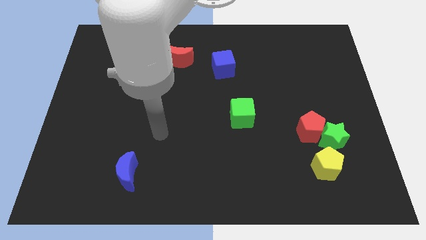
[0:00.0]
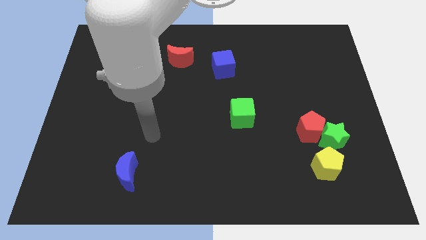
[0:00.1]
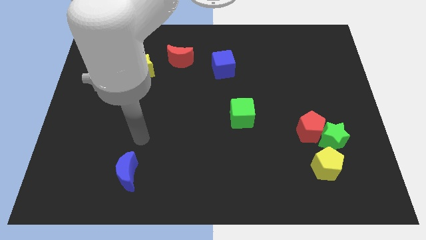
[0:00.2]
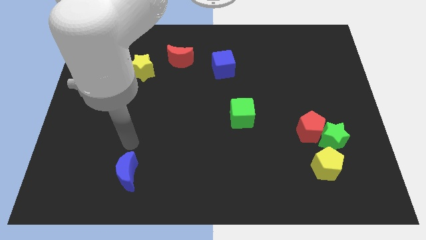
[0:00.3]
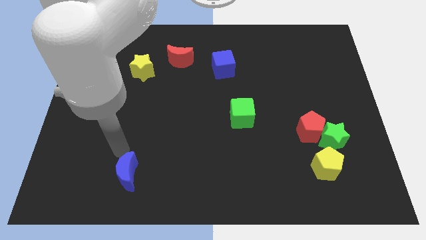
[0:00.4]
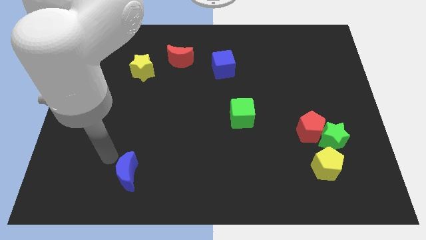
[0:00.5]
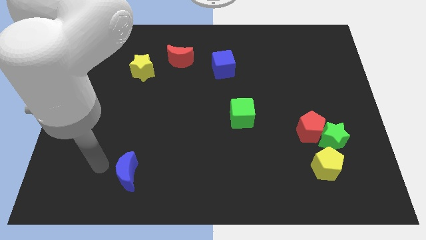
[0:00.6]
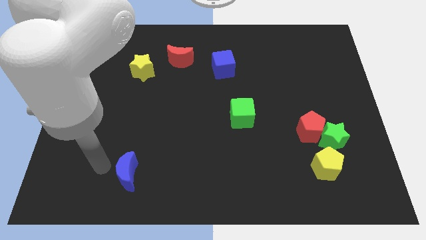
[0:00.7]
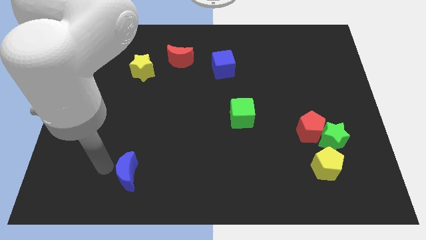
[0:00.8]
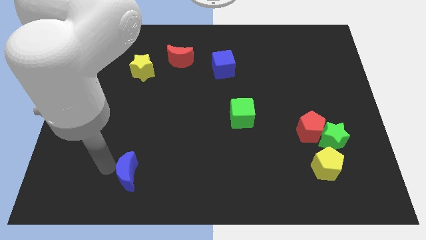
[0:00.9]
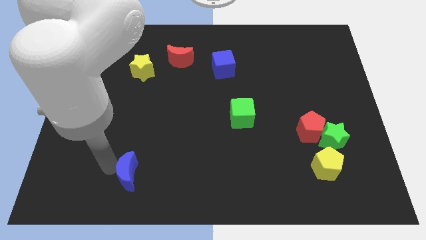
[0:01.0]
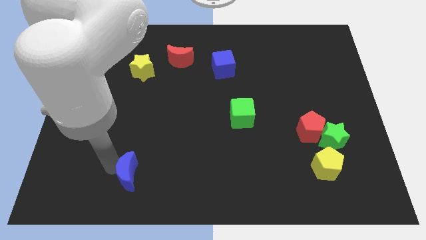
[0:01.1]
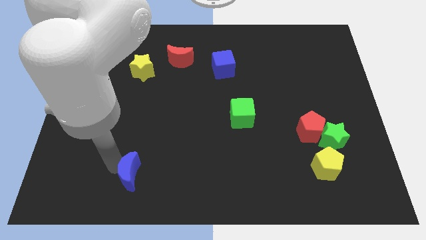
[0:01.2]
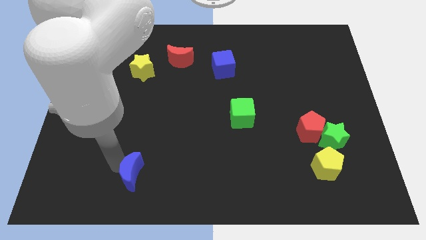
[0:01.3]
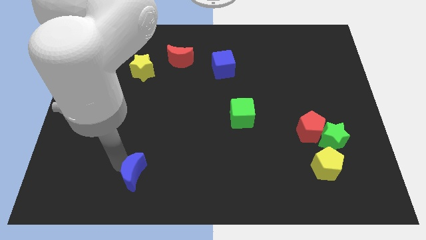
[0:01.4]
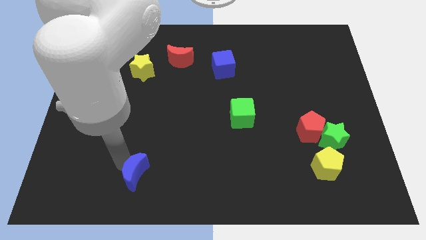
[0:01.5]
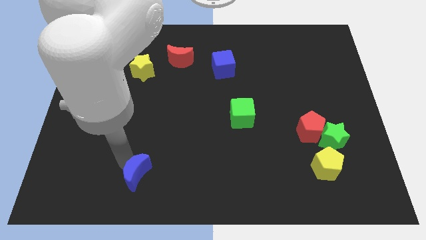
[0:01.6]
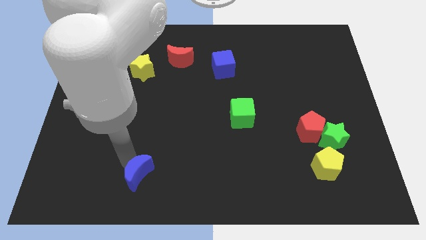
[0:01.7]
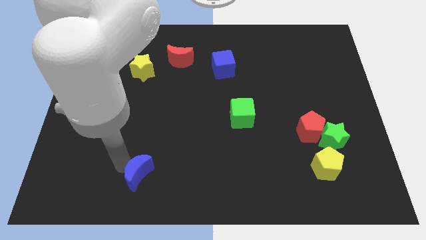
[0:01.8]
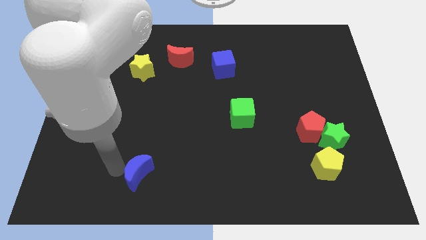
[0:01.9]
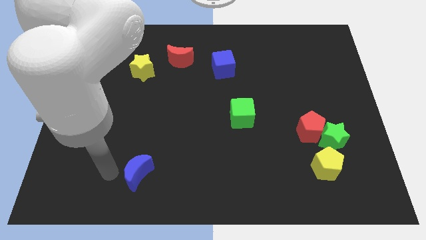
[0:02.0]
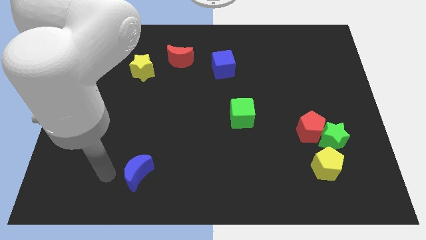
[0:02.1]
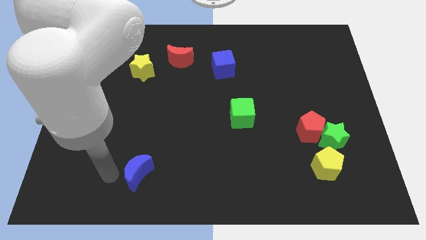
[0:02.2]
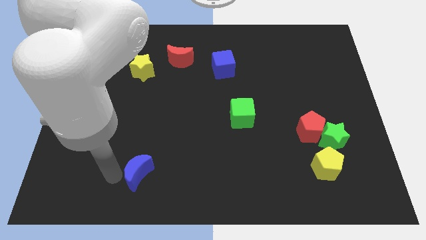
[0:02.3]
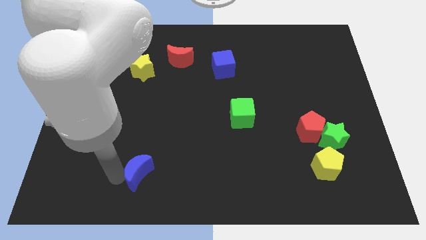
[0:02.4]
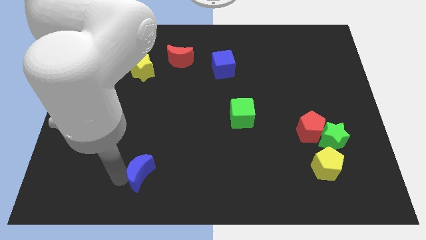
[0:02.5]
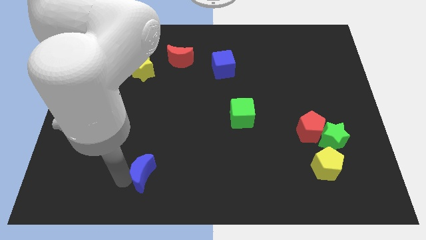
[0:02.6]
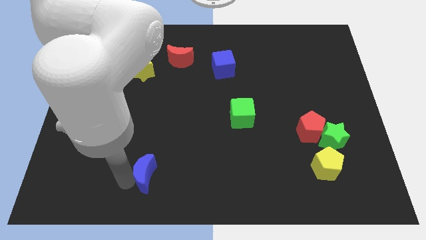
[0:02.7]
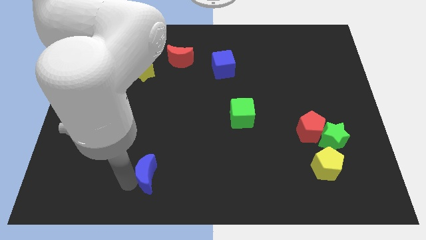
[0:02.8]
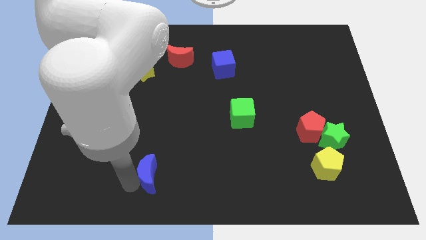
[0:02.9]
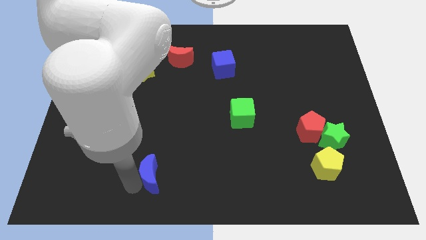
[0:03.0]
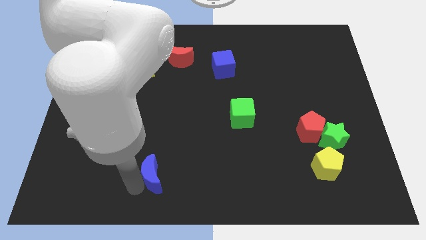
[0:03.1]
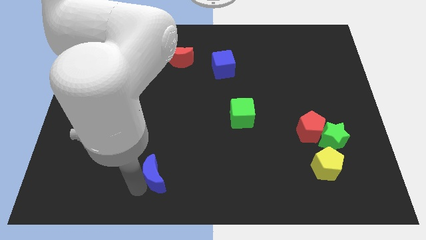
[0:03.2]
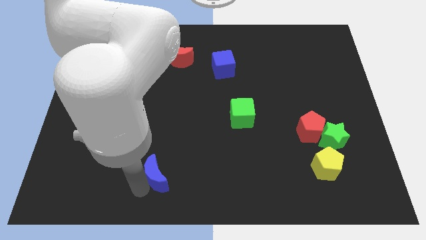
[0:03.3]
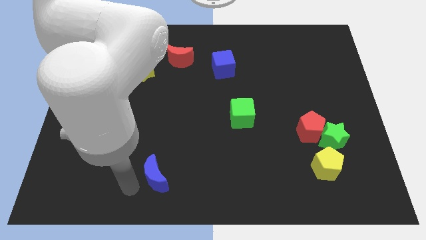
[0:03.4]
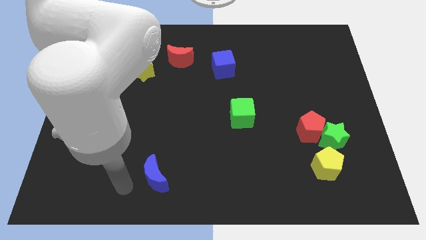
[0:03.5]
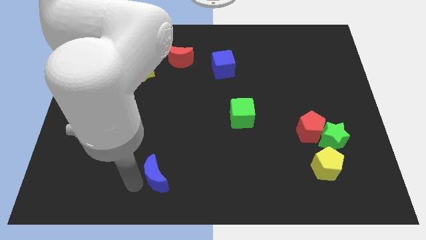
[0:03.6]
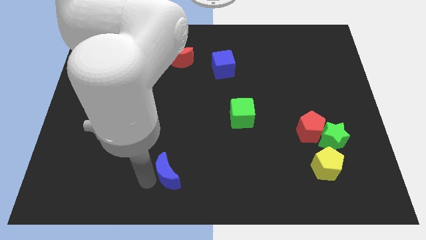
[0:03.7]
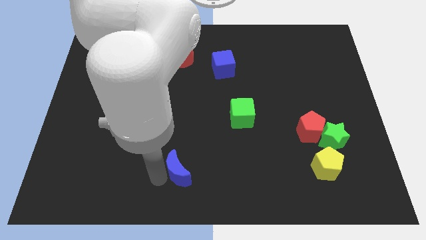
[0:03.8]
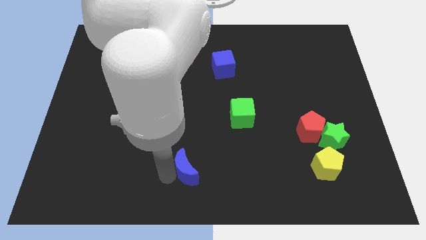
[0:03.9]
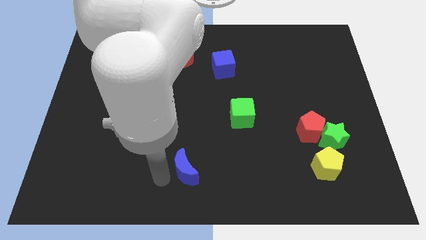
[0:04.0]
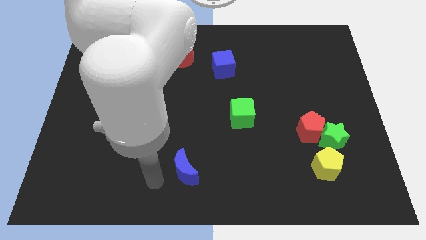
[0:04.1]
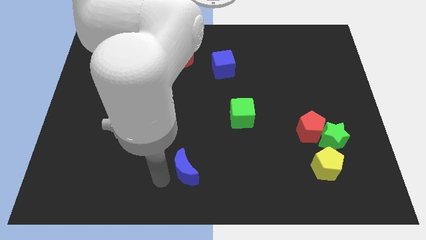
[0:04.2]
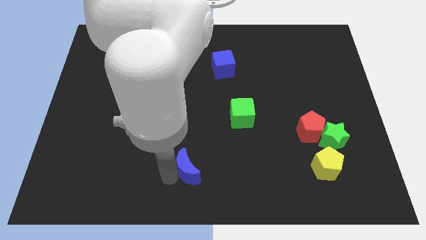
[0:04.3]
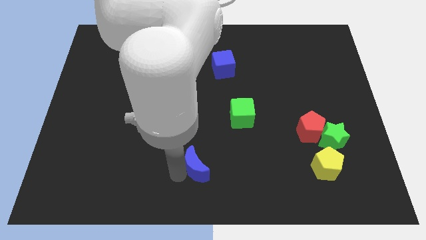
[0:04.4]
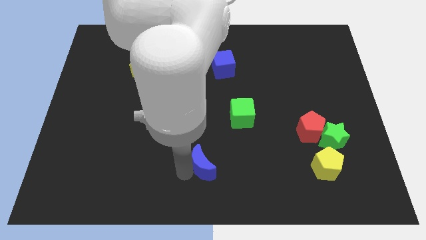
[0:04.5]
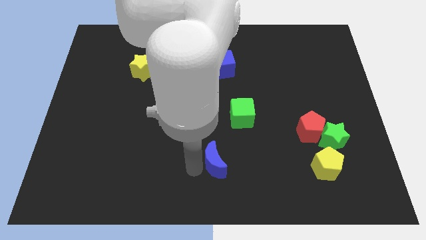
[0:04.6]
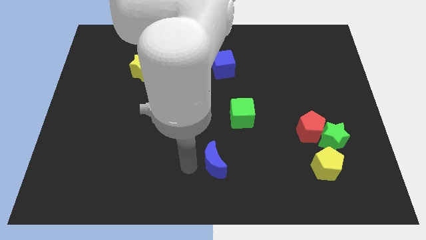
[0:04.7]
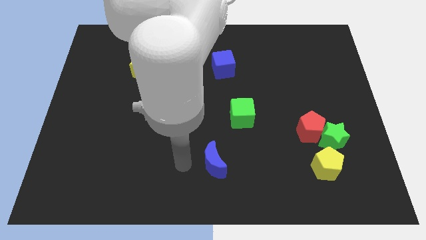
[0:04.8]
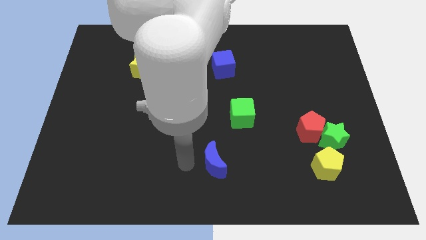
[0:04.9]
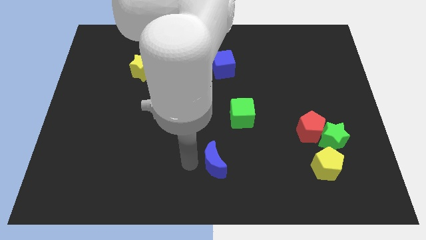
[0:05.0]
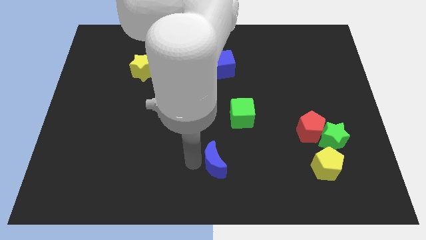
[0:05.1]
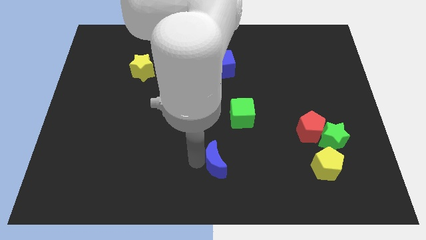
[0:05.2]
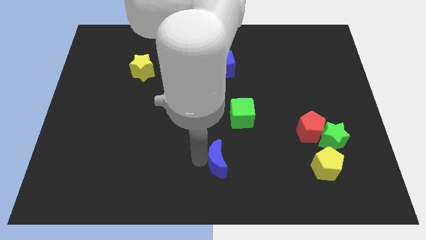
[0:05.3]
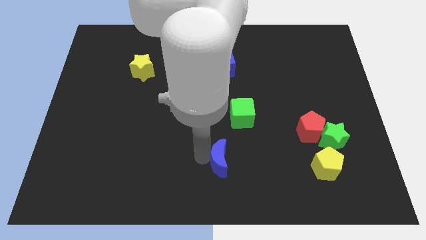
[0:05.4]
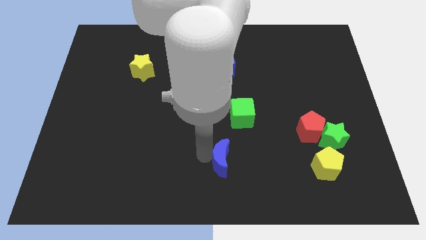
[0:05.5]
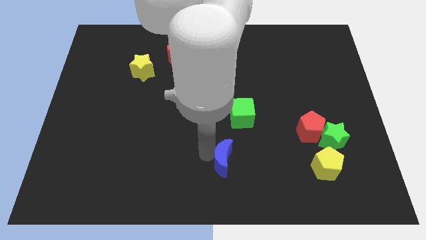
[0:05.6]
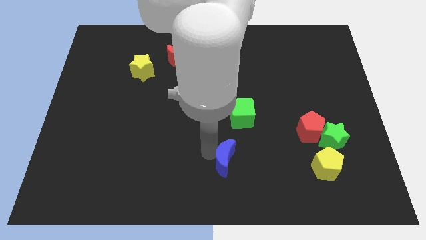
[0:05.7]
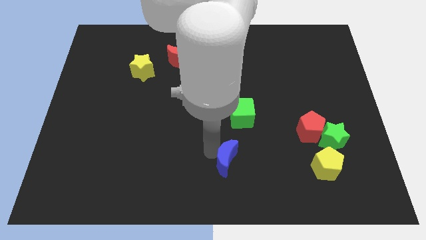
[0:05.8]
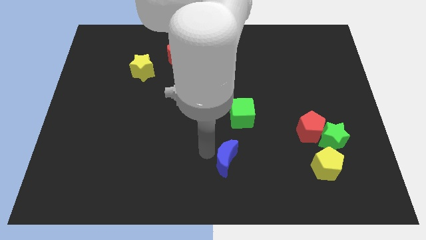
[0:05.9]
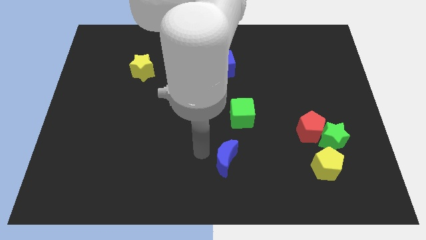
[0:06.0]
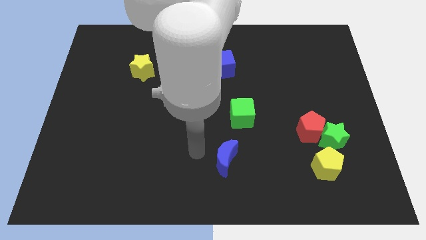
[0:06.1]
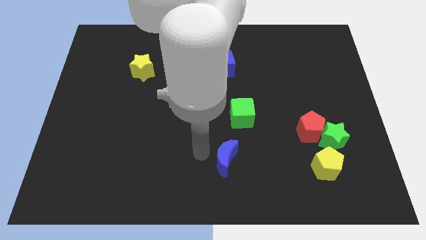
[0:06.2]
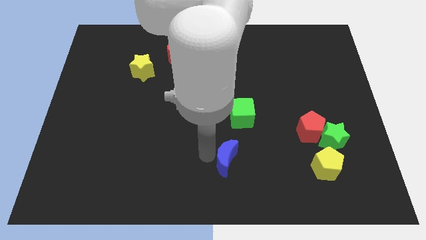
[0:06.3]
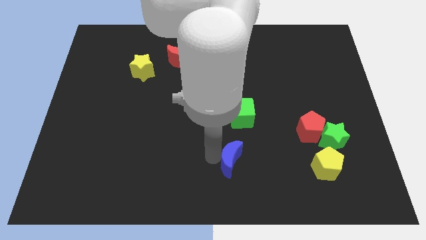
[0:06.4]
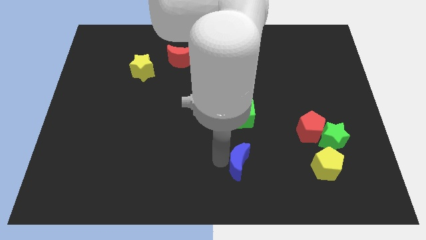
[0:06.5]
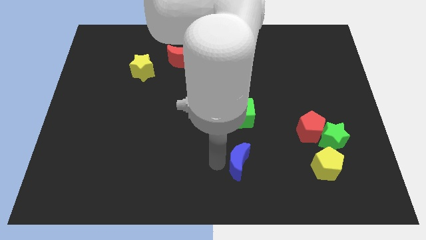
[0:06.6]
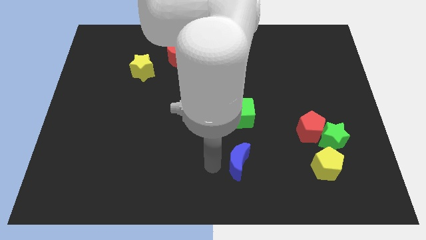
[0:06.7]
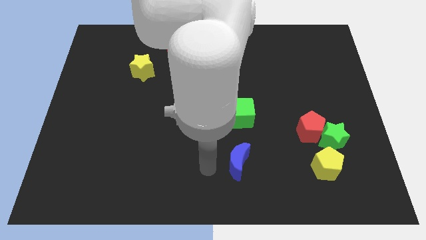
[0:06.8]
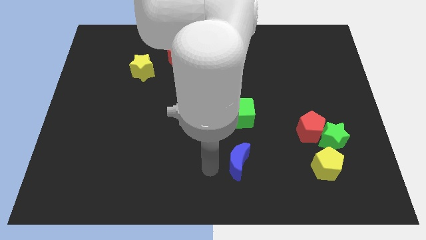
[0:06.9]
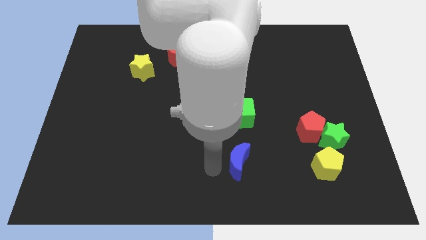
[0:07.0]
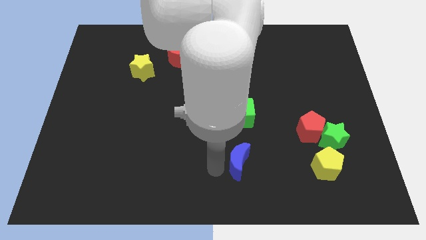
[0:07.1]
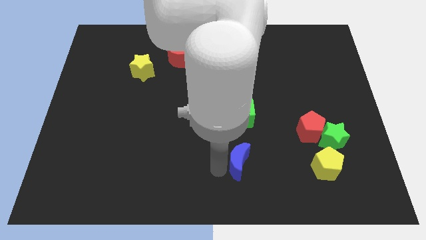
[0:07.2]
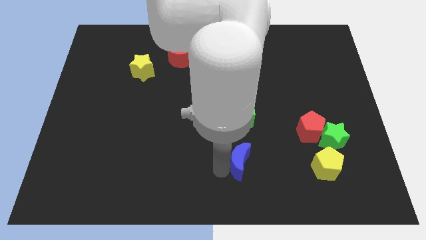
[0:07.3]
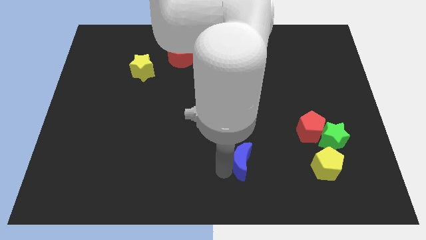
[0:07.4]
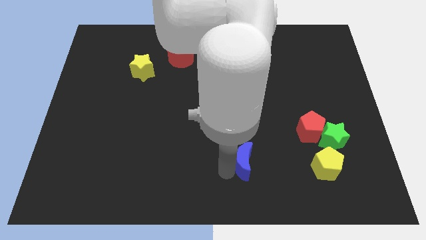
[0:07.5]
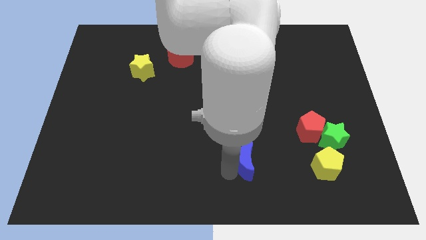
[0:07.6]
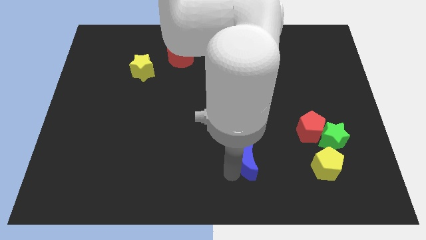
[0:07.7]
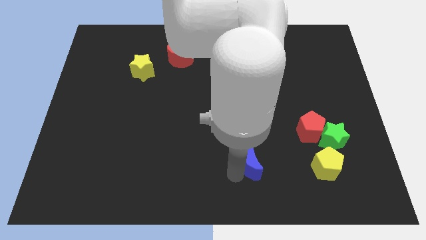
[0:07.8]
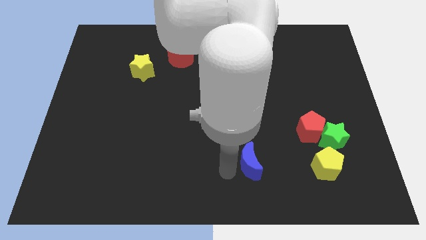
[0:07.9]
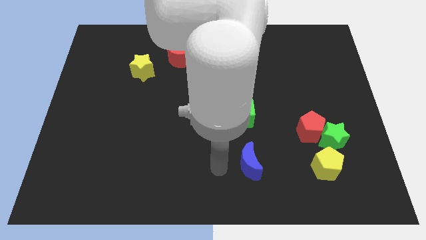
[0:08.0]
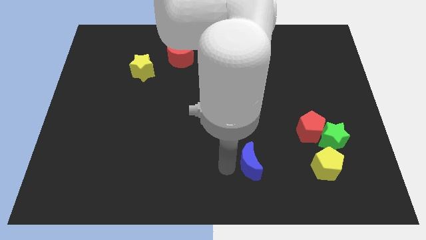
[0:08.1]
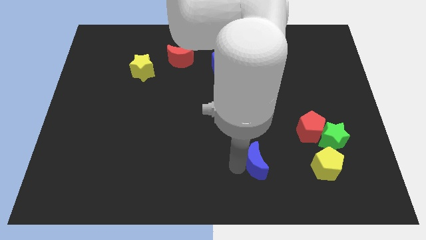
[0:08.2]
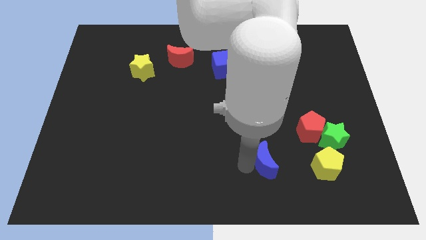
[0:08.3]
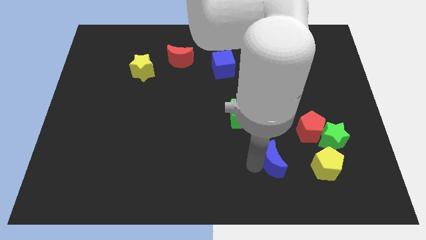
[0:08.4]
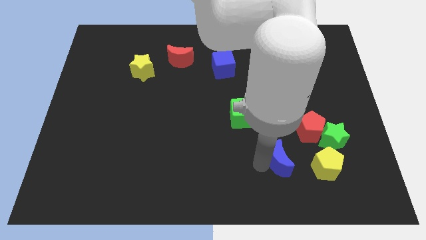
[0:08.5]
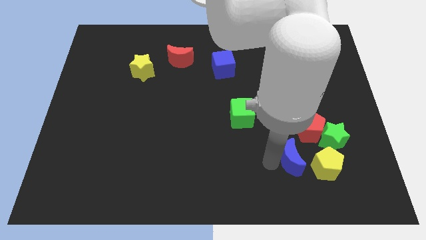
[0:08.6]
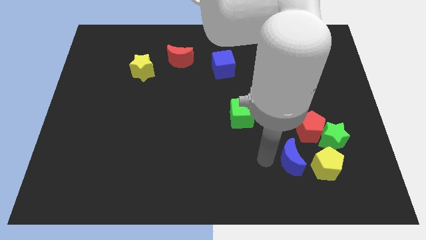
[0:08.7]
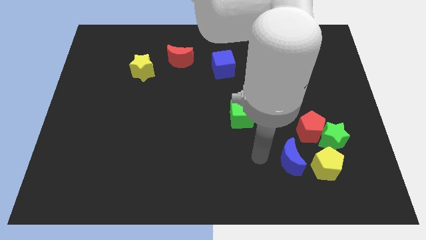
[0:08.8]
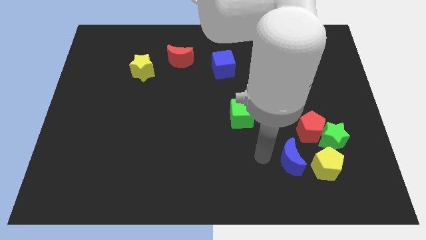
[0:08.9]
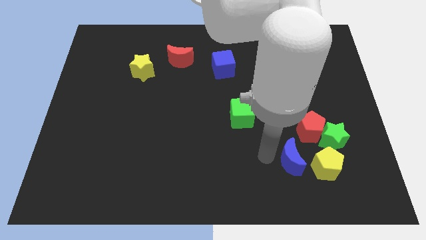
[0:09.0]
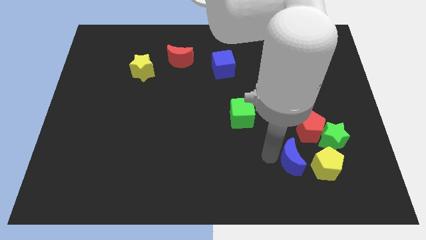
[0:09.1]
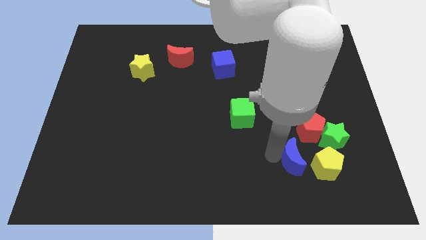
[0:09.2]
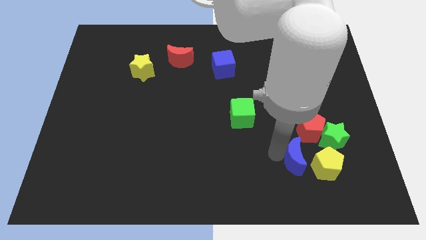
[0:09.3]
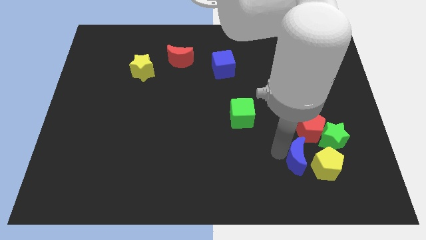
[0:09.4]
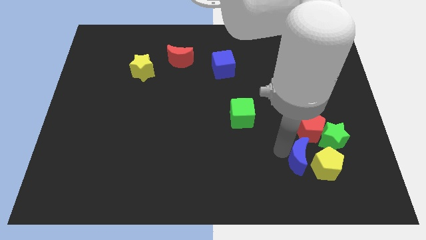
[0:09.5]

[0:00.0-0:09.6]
move the blue moon close to the yellow pentagon
